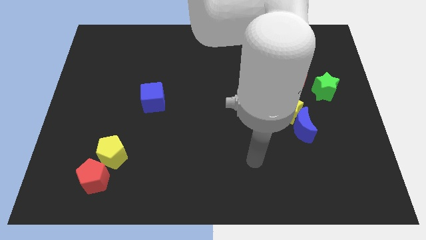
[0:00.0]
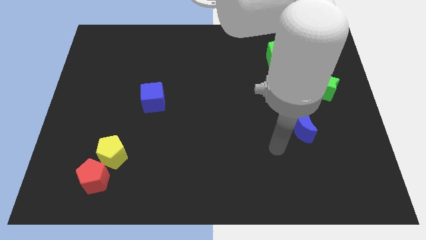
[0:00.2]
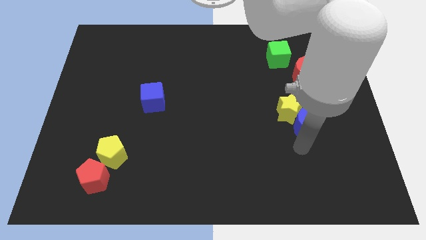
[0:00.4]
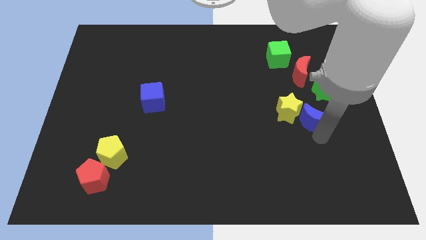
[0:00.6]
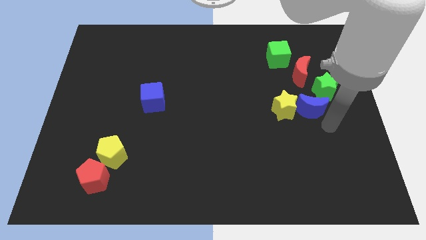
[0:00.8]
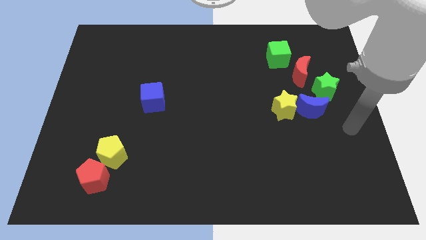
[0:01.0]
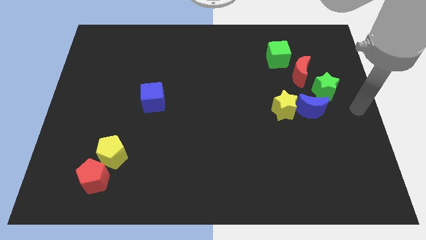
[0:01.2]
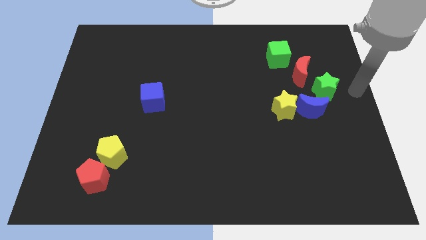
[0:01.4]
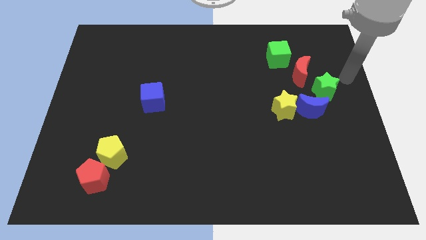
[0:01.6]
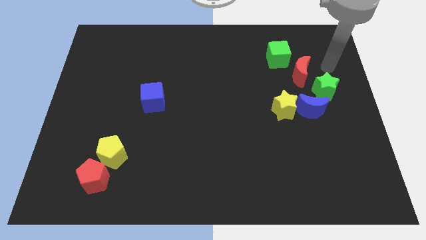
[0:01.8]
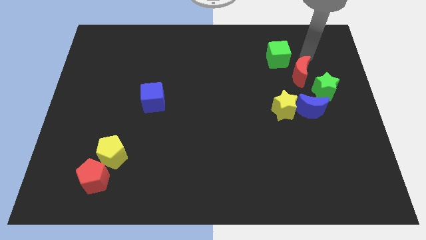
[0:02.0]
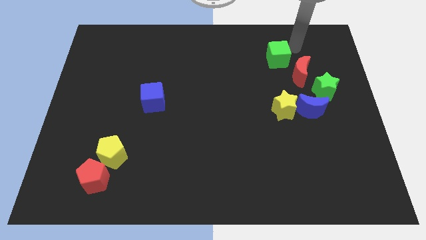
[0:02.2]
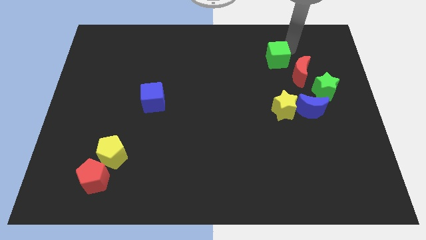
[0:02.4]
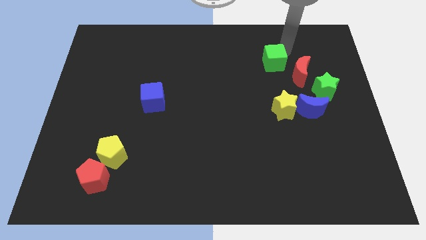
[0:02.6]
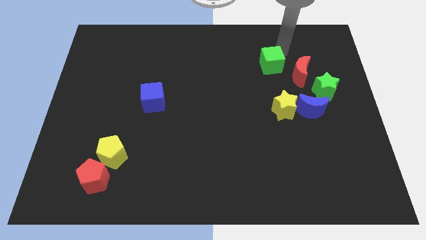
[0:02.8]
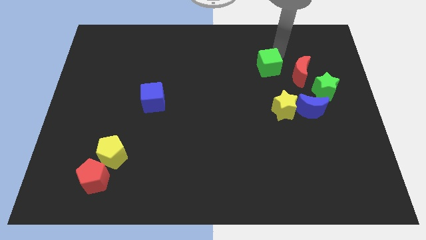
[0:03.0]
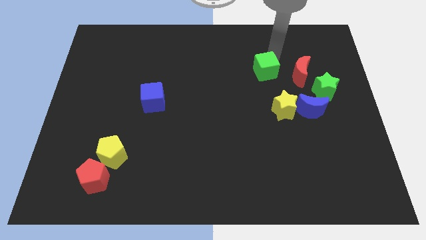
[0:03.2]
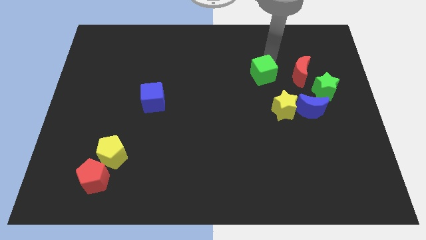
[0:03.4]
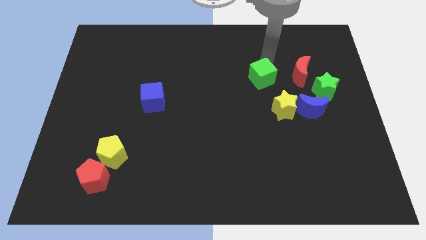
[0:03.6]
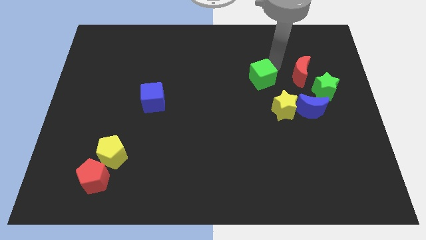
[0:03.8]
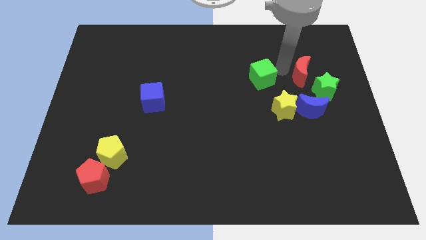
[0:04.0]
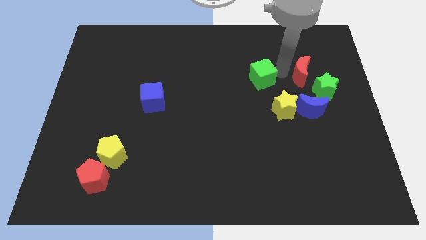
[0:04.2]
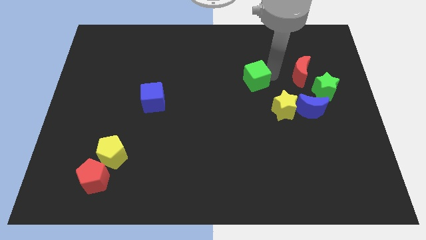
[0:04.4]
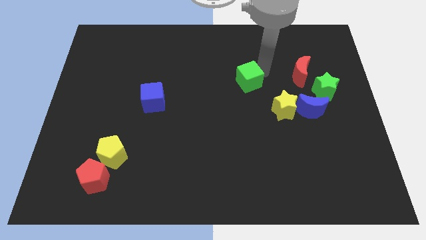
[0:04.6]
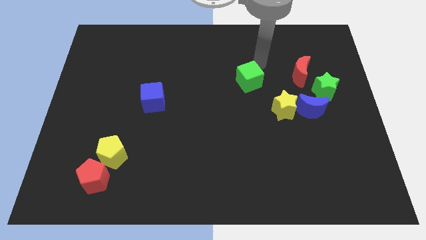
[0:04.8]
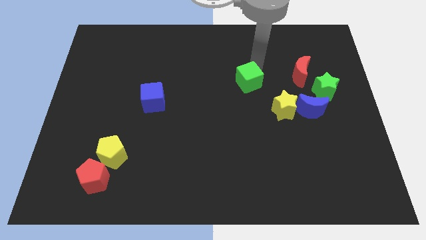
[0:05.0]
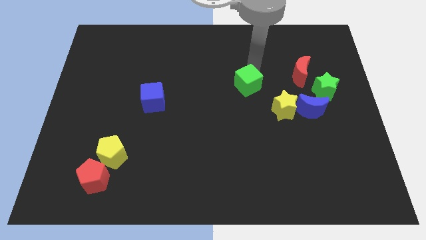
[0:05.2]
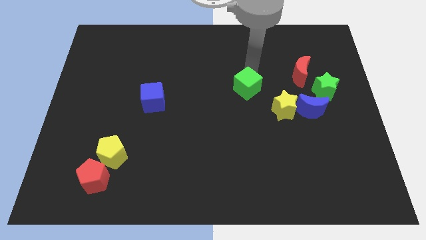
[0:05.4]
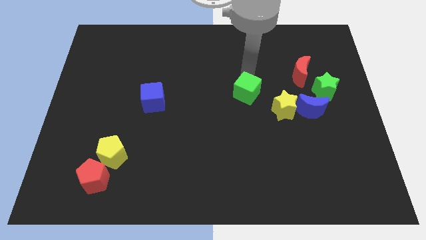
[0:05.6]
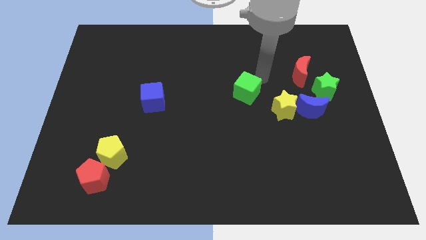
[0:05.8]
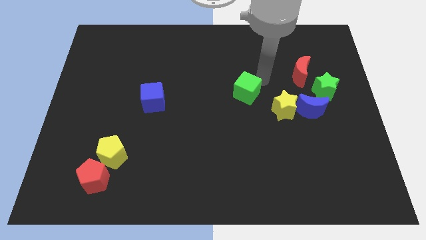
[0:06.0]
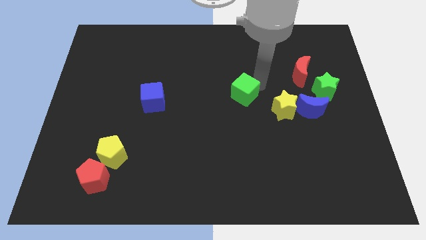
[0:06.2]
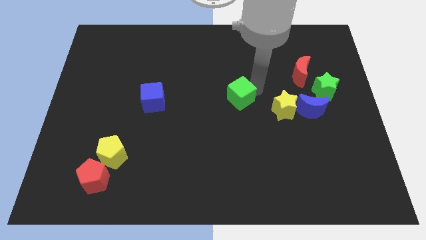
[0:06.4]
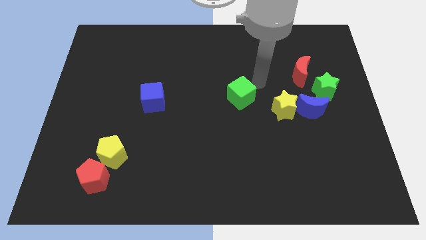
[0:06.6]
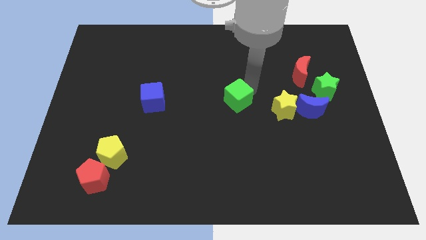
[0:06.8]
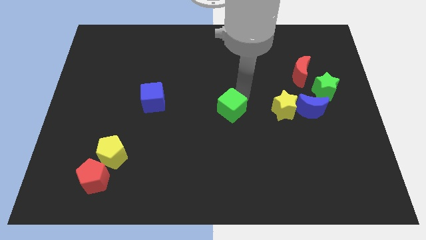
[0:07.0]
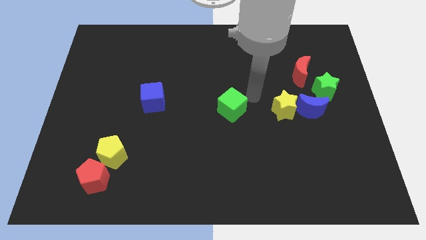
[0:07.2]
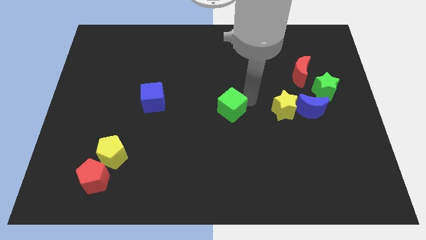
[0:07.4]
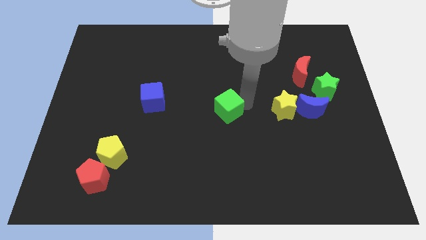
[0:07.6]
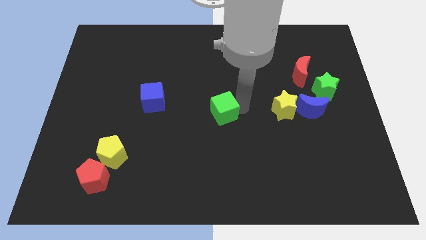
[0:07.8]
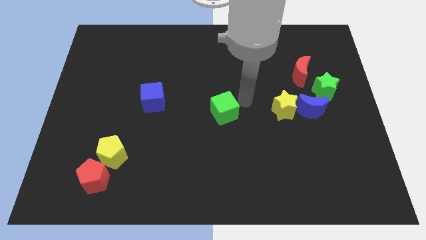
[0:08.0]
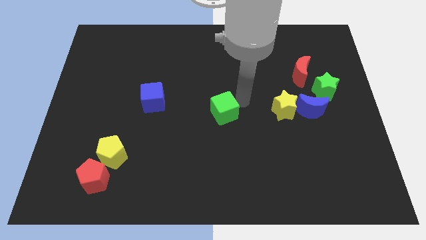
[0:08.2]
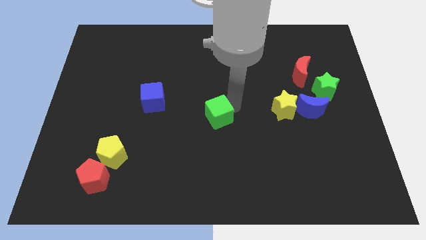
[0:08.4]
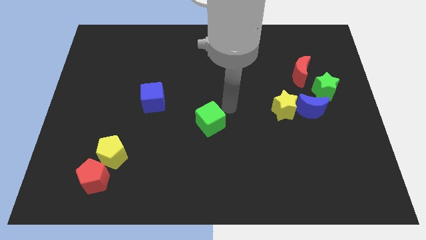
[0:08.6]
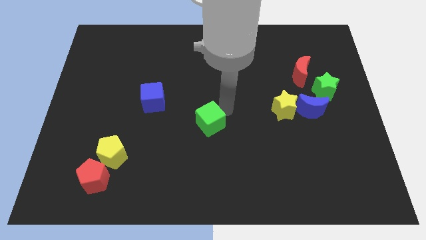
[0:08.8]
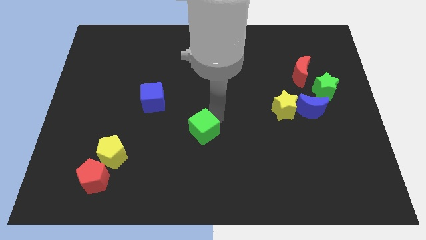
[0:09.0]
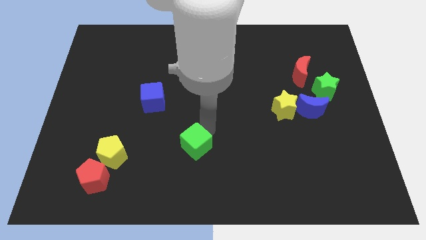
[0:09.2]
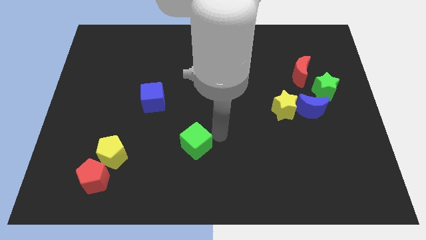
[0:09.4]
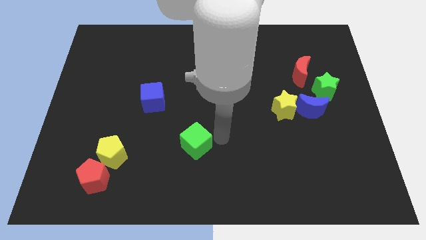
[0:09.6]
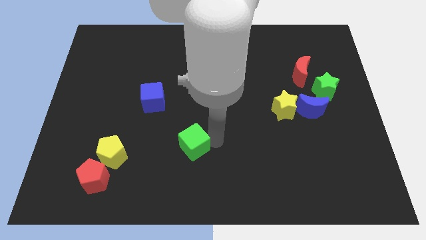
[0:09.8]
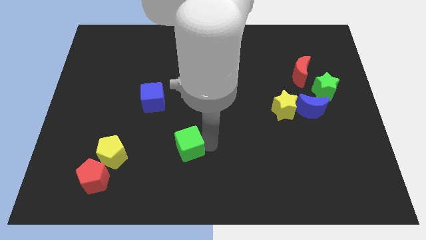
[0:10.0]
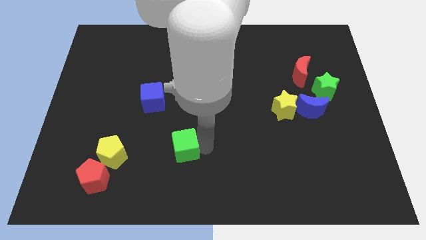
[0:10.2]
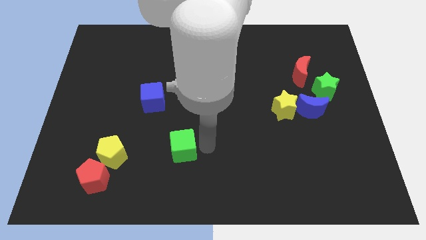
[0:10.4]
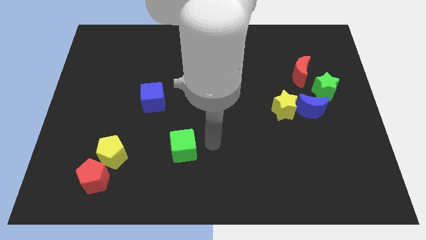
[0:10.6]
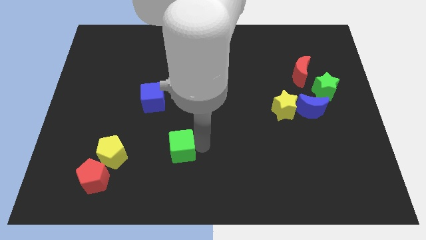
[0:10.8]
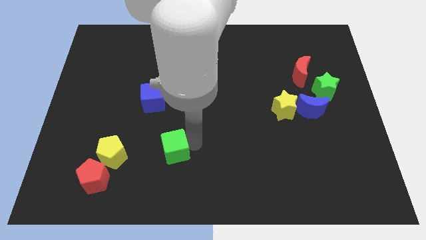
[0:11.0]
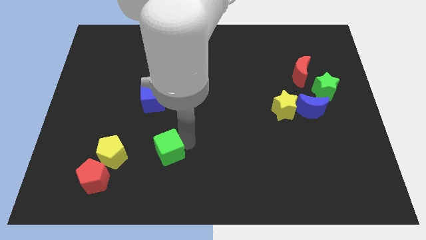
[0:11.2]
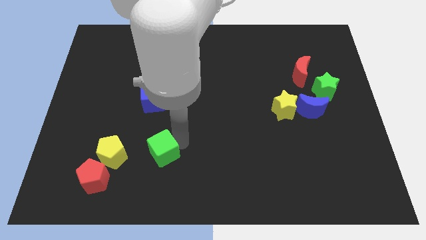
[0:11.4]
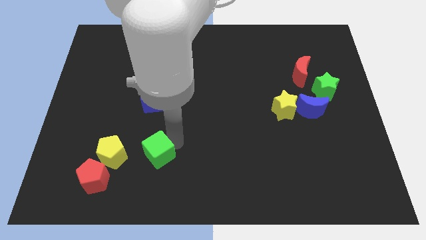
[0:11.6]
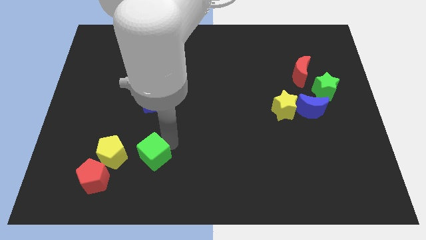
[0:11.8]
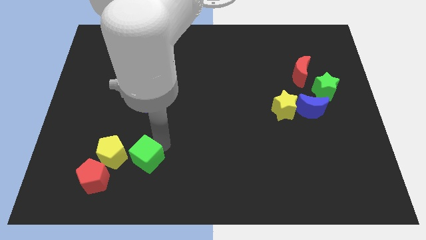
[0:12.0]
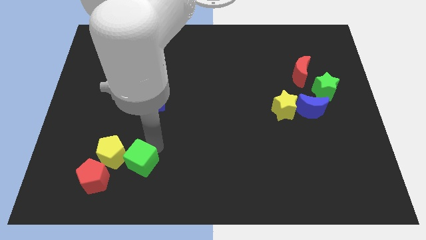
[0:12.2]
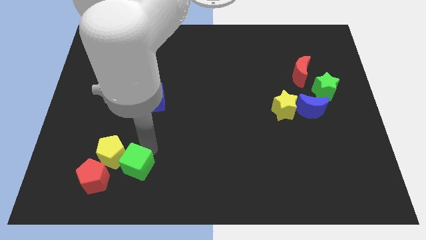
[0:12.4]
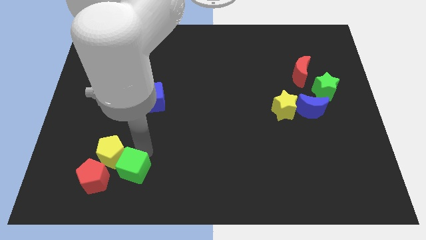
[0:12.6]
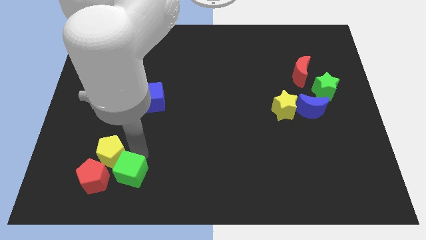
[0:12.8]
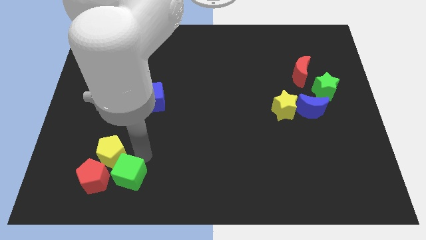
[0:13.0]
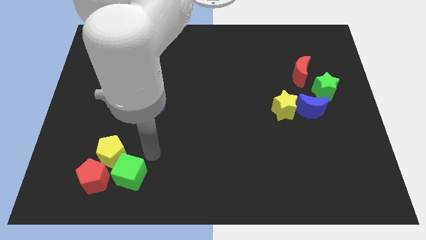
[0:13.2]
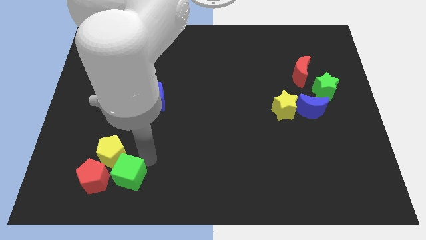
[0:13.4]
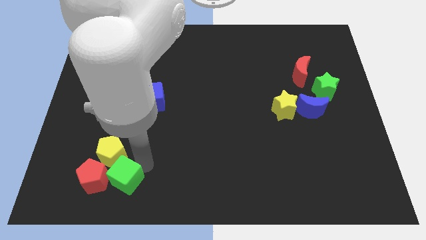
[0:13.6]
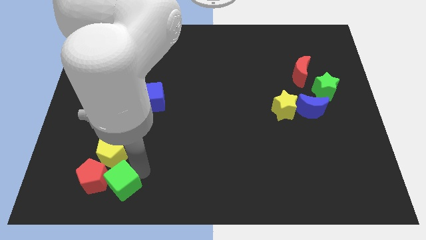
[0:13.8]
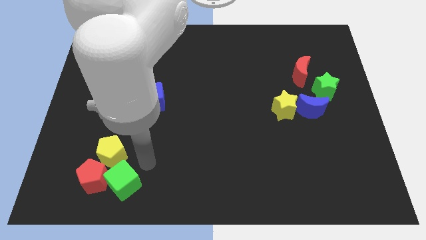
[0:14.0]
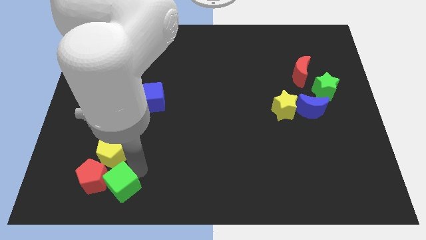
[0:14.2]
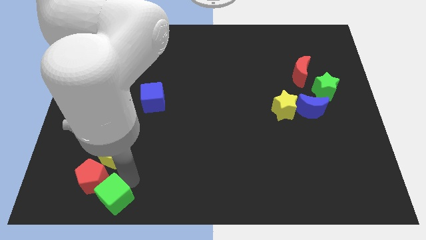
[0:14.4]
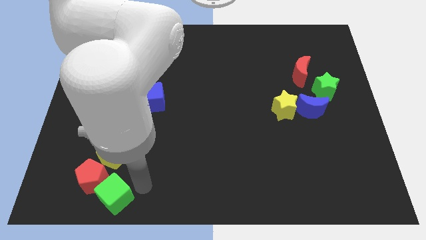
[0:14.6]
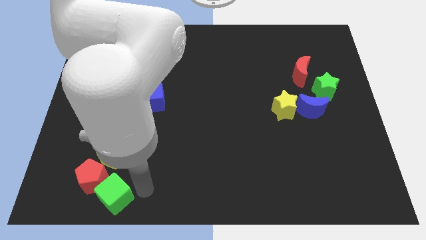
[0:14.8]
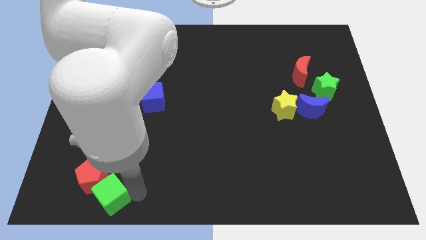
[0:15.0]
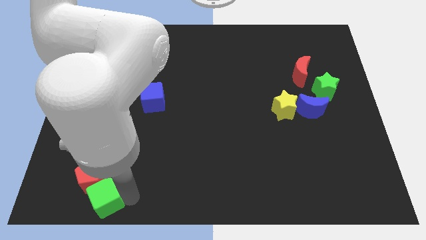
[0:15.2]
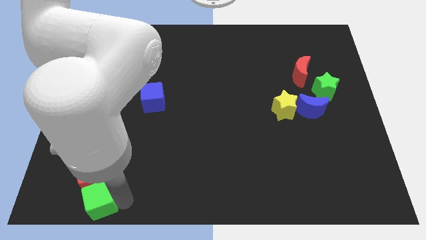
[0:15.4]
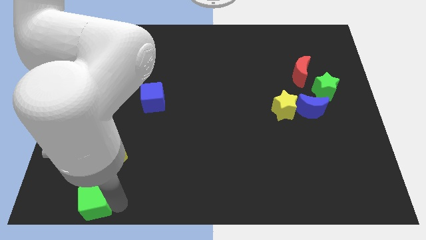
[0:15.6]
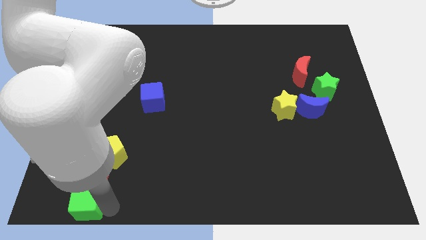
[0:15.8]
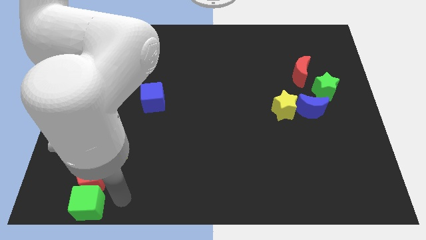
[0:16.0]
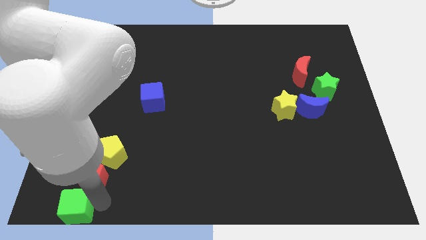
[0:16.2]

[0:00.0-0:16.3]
put the green cube to the bottom left corner
